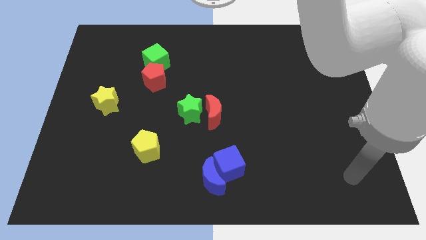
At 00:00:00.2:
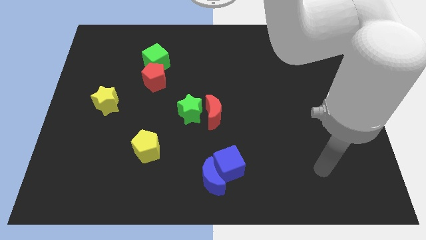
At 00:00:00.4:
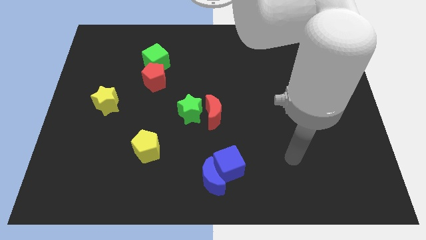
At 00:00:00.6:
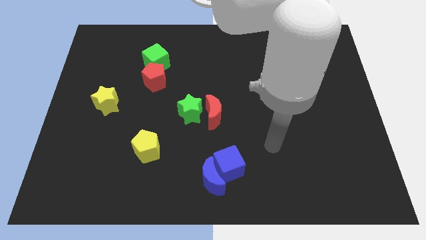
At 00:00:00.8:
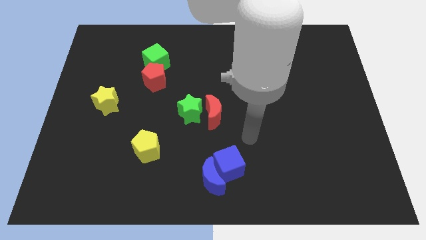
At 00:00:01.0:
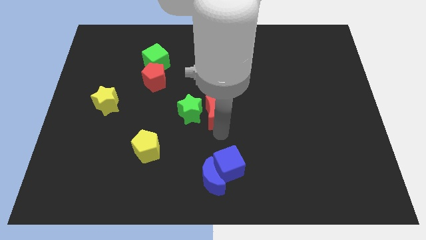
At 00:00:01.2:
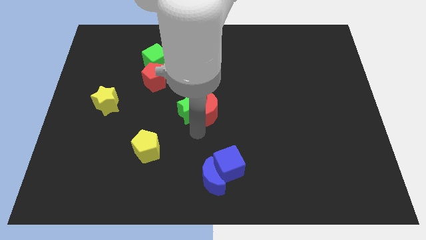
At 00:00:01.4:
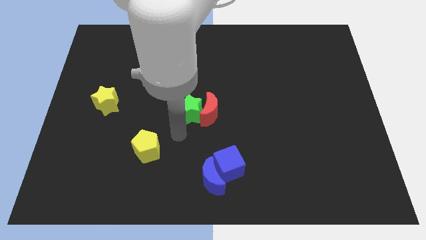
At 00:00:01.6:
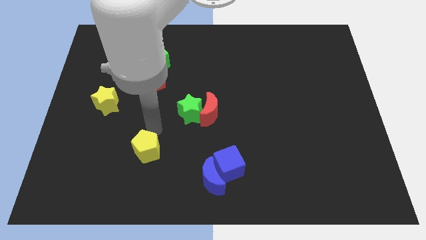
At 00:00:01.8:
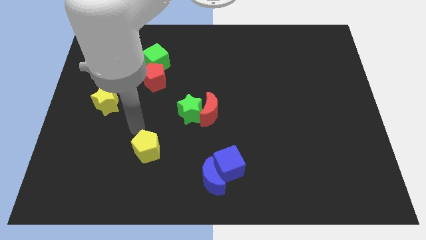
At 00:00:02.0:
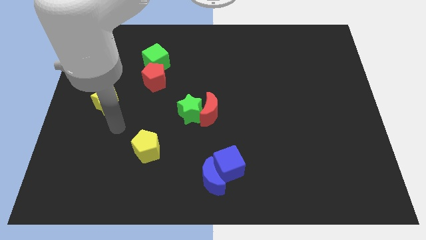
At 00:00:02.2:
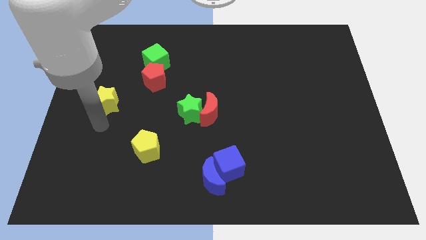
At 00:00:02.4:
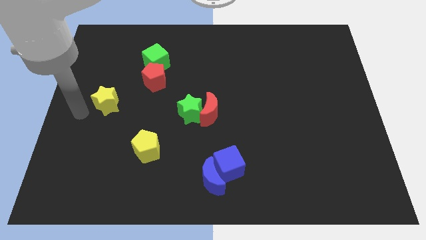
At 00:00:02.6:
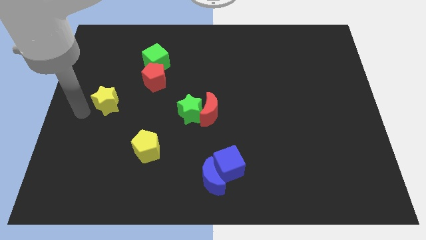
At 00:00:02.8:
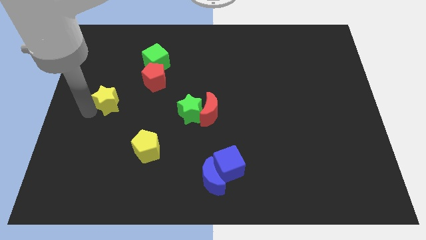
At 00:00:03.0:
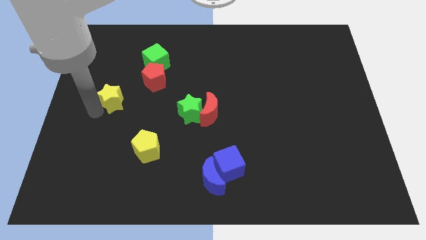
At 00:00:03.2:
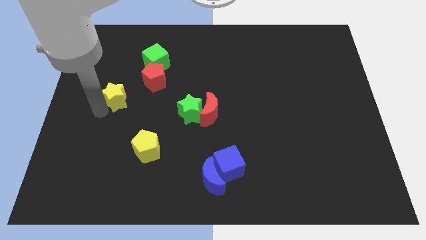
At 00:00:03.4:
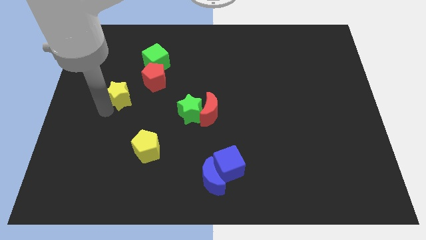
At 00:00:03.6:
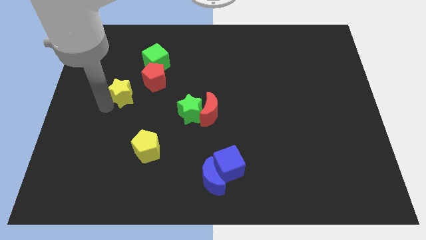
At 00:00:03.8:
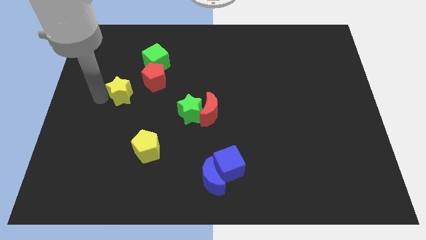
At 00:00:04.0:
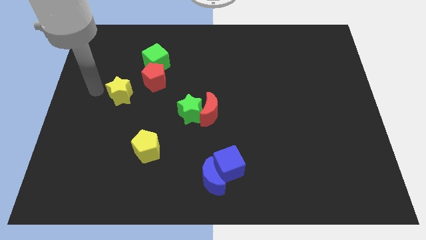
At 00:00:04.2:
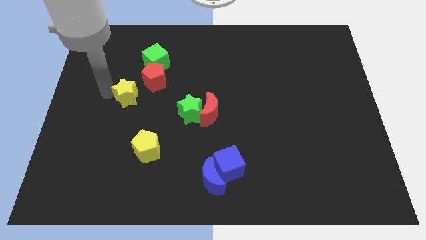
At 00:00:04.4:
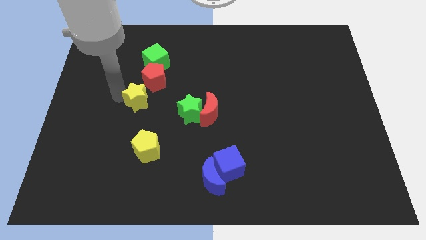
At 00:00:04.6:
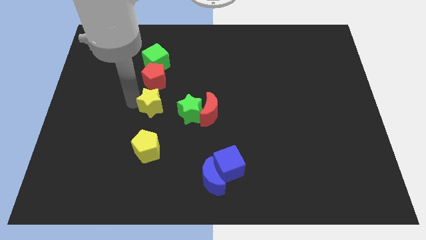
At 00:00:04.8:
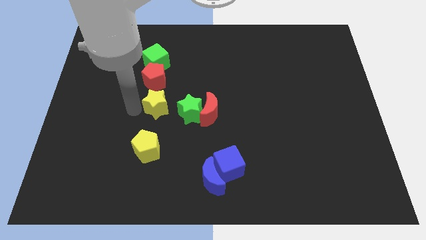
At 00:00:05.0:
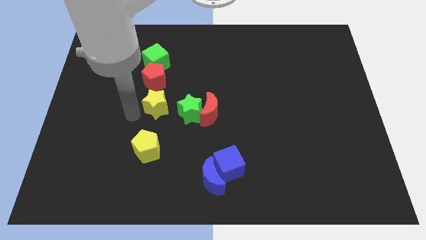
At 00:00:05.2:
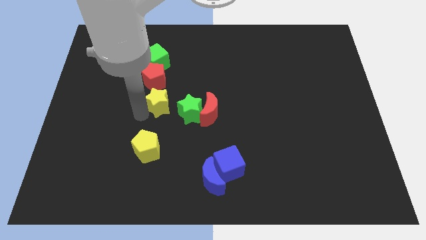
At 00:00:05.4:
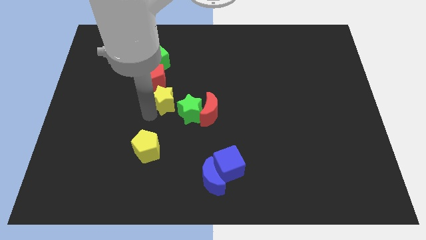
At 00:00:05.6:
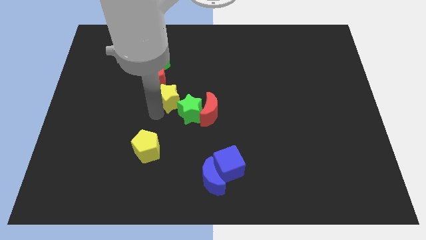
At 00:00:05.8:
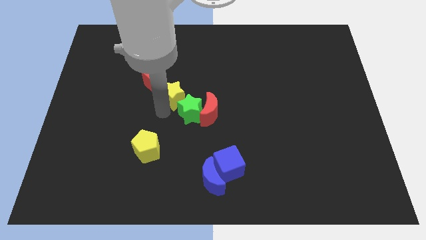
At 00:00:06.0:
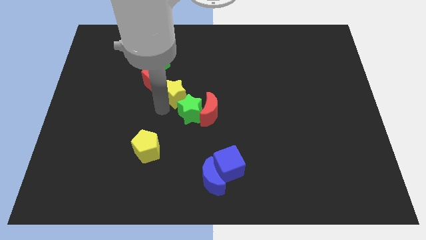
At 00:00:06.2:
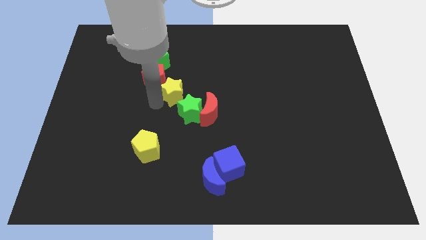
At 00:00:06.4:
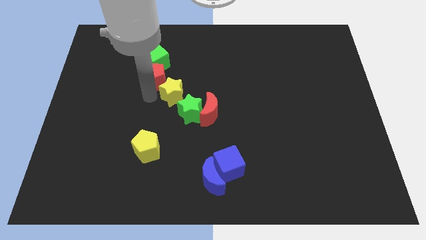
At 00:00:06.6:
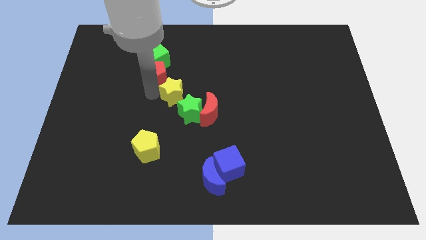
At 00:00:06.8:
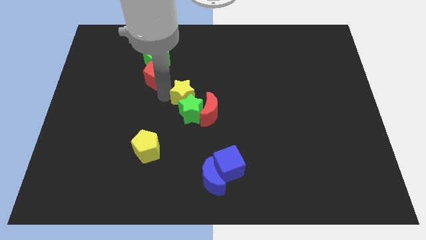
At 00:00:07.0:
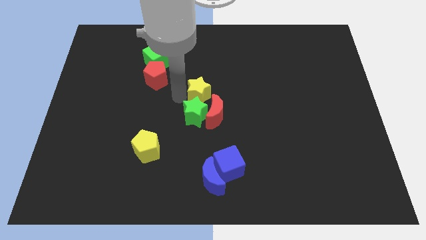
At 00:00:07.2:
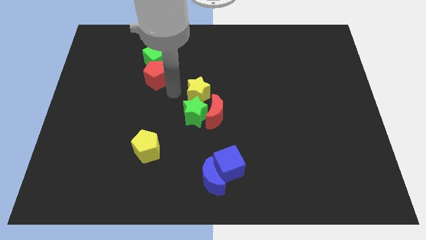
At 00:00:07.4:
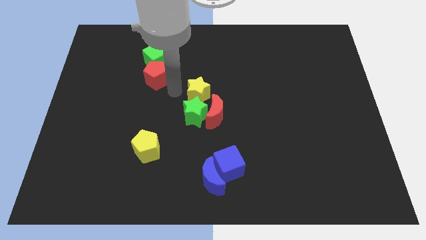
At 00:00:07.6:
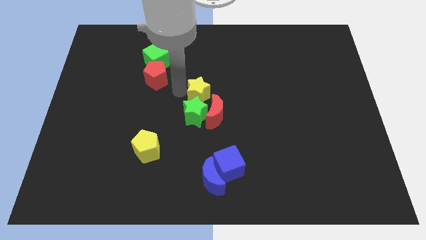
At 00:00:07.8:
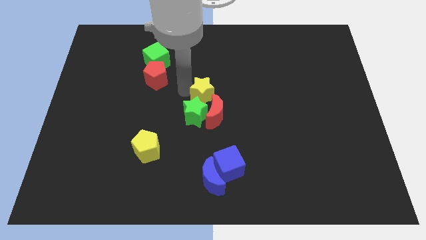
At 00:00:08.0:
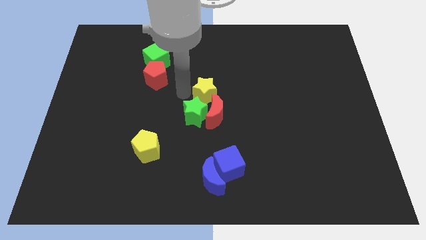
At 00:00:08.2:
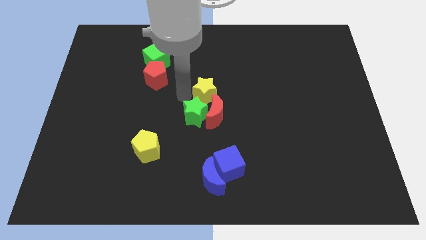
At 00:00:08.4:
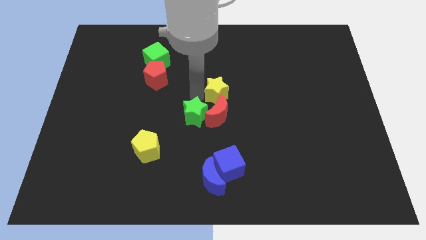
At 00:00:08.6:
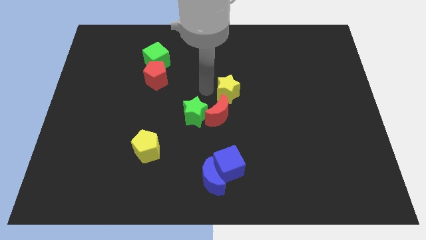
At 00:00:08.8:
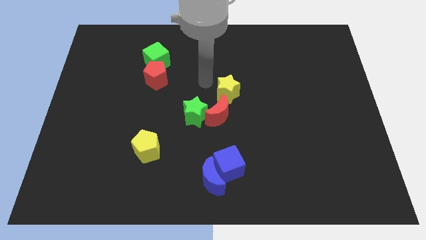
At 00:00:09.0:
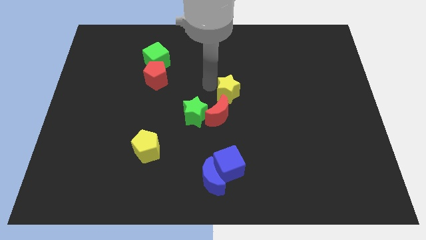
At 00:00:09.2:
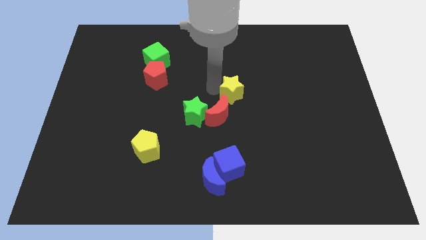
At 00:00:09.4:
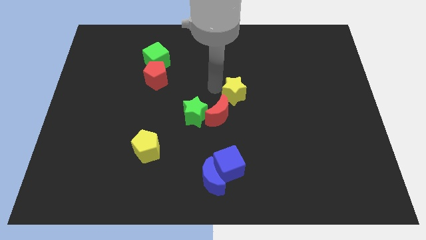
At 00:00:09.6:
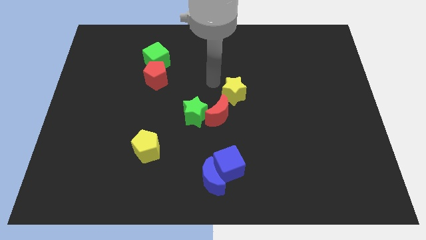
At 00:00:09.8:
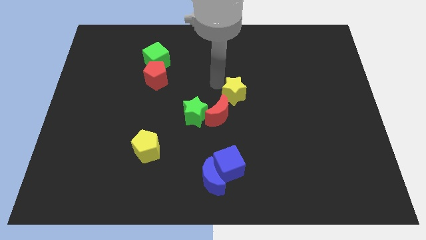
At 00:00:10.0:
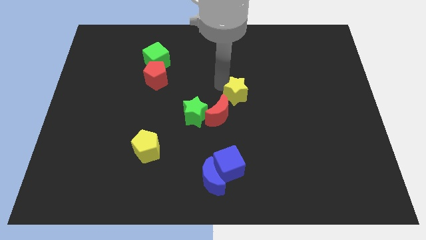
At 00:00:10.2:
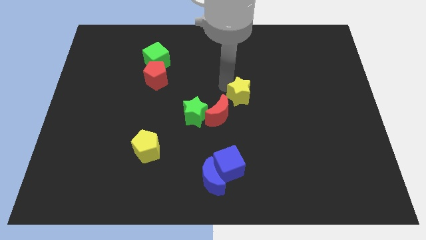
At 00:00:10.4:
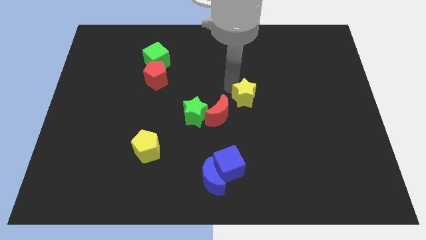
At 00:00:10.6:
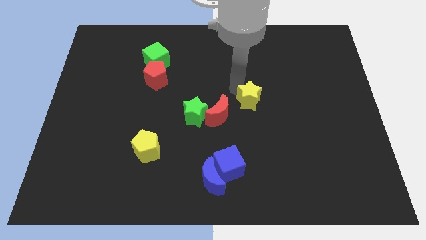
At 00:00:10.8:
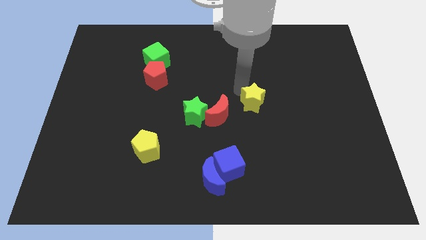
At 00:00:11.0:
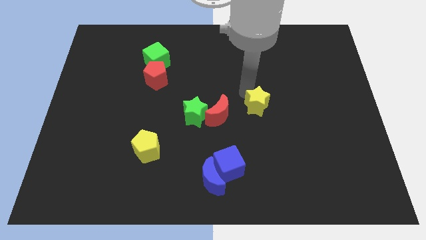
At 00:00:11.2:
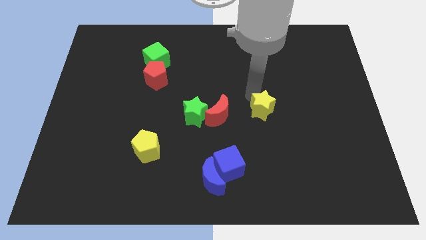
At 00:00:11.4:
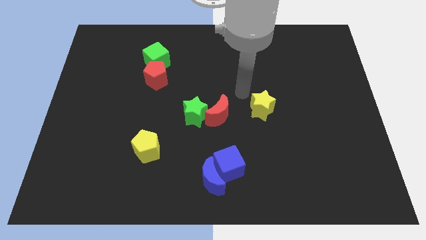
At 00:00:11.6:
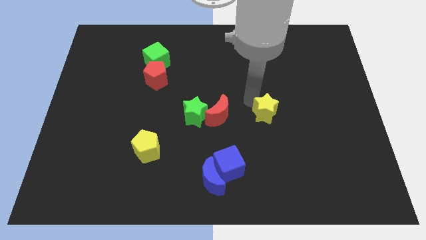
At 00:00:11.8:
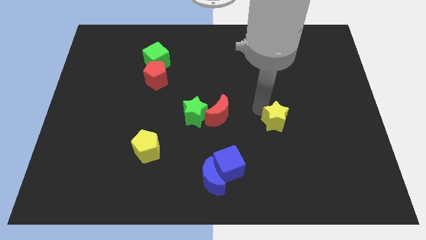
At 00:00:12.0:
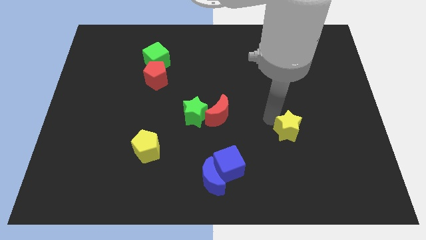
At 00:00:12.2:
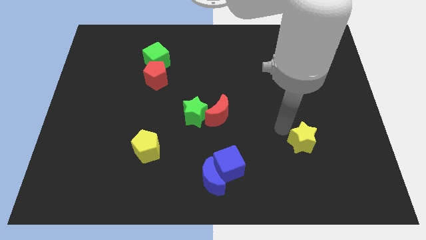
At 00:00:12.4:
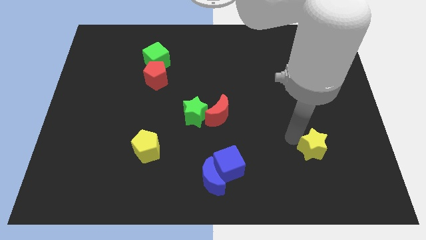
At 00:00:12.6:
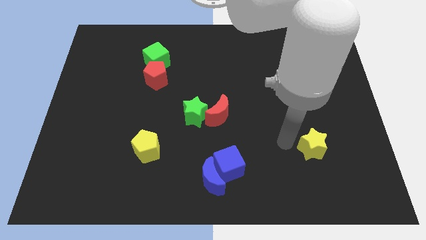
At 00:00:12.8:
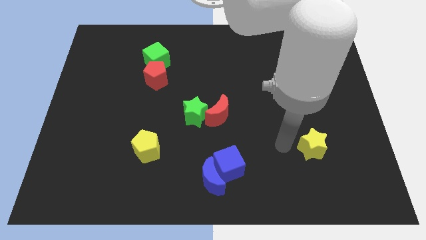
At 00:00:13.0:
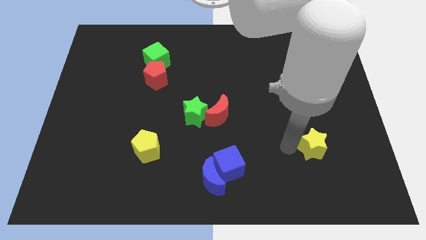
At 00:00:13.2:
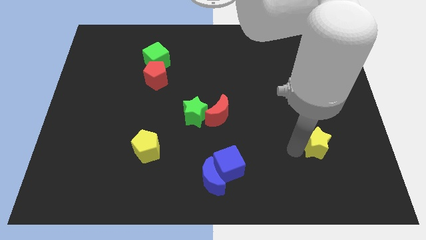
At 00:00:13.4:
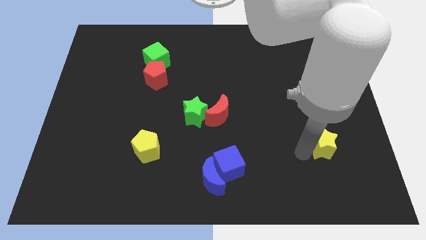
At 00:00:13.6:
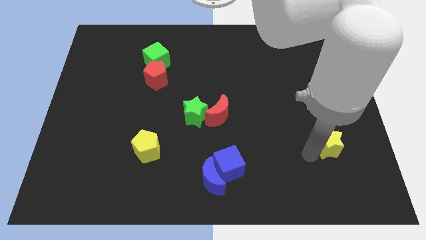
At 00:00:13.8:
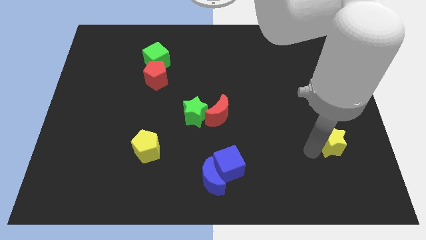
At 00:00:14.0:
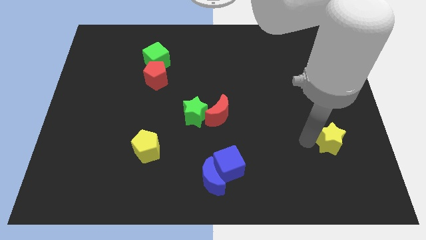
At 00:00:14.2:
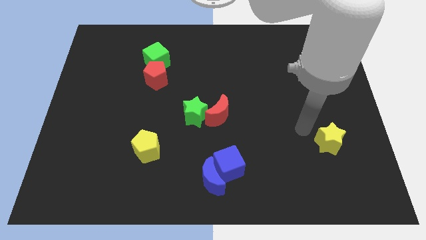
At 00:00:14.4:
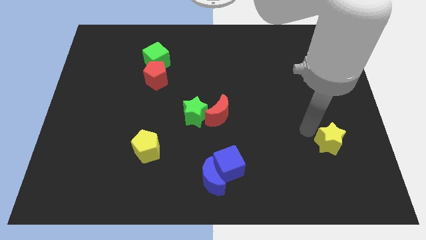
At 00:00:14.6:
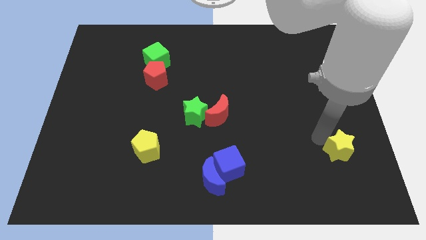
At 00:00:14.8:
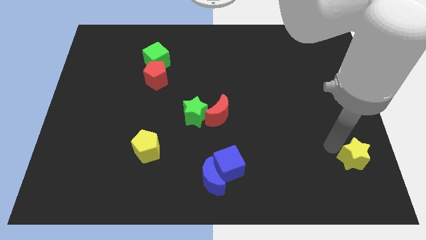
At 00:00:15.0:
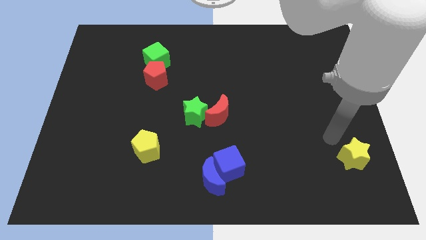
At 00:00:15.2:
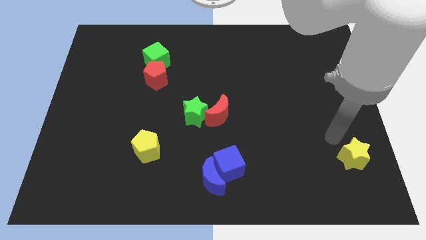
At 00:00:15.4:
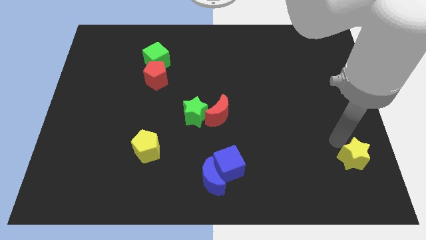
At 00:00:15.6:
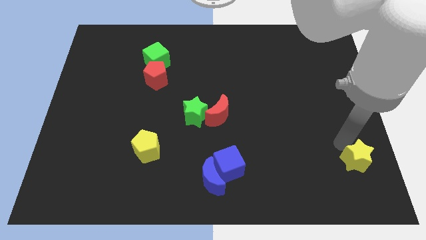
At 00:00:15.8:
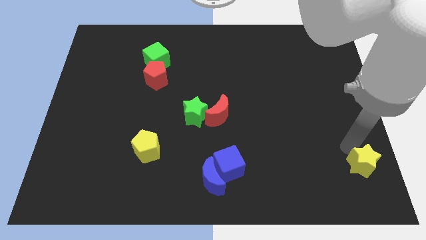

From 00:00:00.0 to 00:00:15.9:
slide the yellow star to the lower right corner
